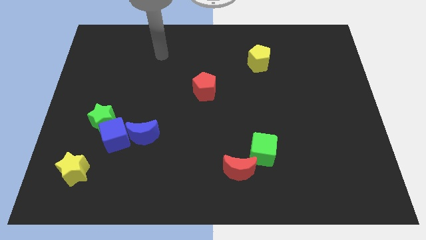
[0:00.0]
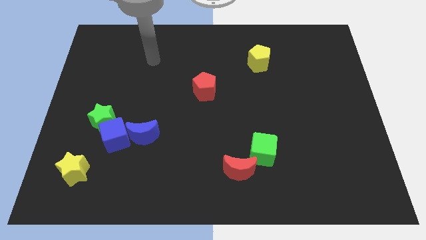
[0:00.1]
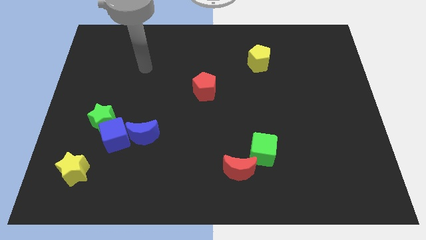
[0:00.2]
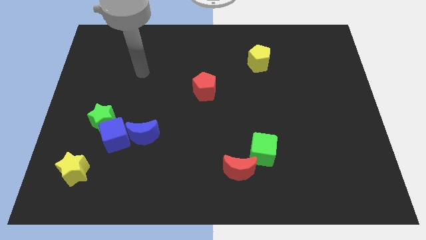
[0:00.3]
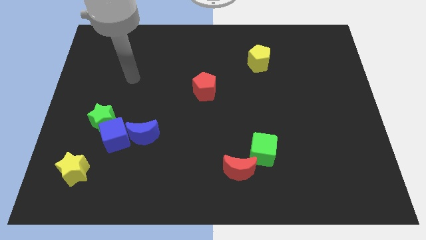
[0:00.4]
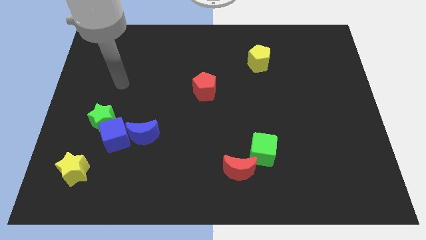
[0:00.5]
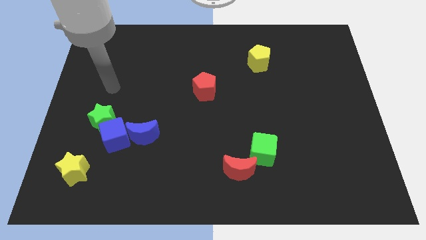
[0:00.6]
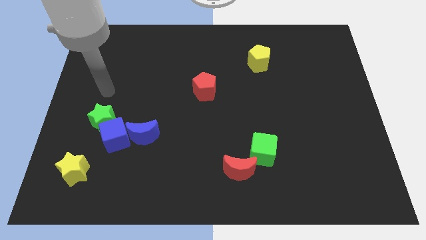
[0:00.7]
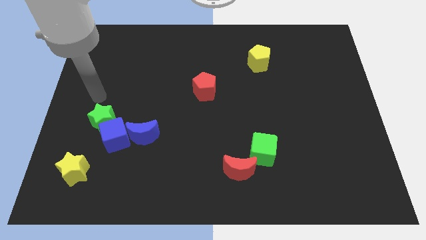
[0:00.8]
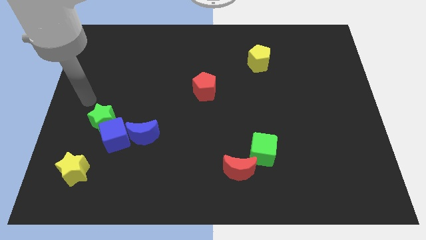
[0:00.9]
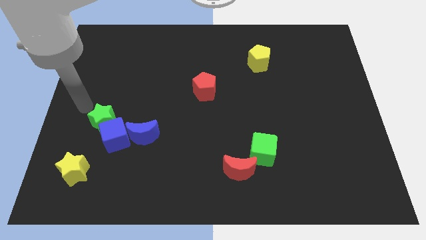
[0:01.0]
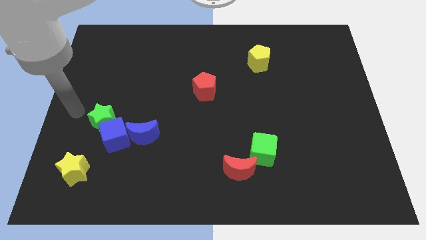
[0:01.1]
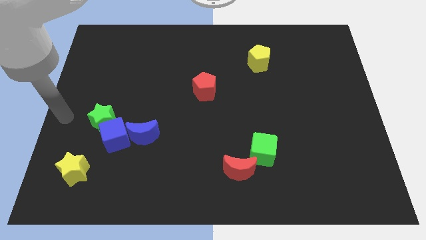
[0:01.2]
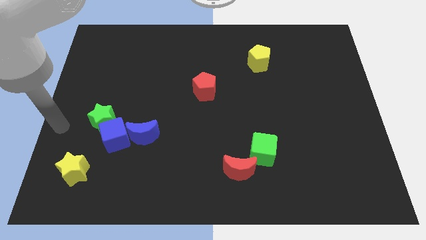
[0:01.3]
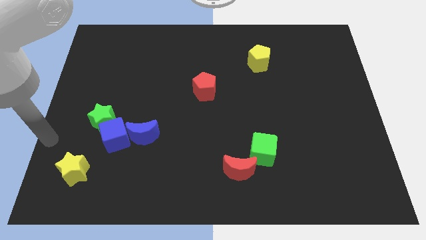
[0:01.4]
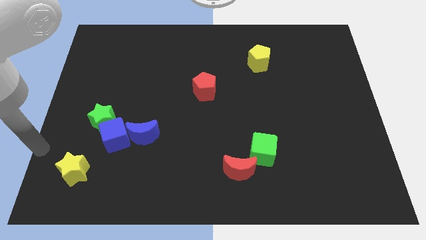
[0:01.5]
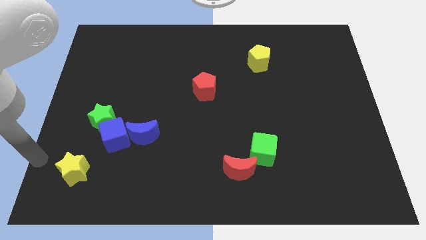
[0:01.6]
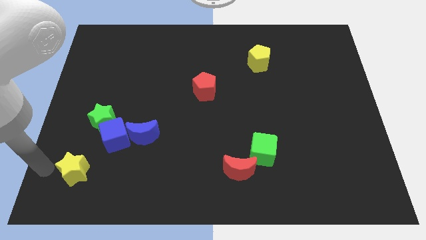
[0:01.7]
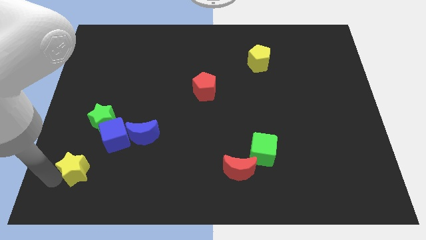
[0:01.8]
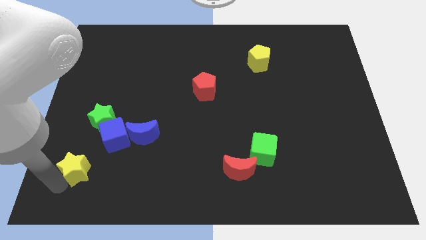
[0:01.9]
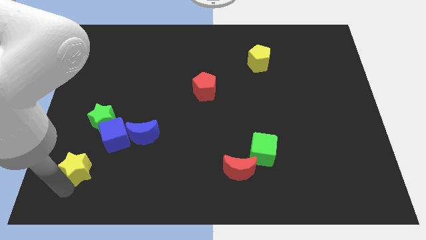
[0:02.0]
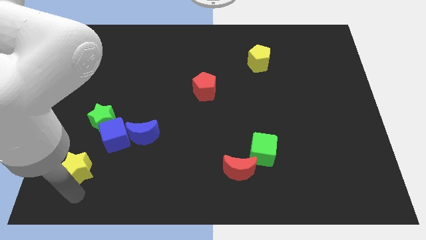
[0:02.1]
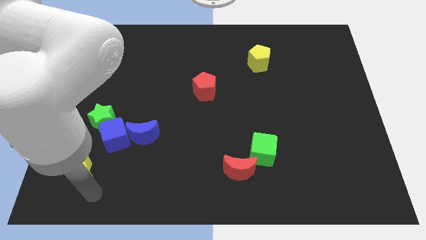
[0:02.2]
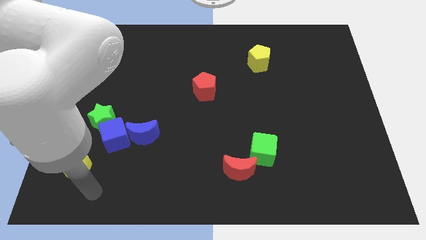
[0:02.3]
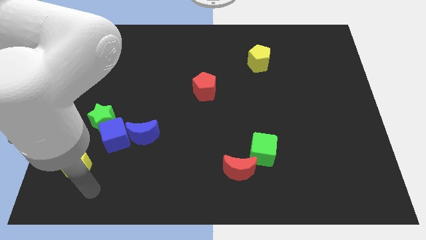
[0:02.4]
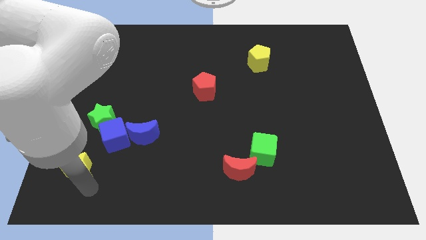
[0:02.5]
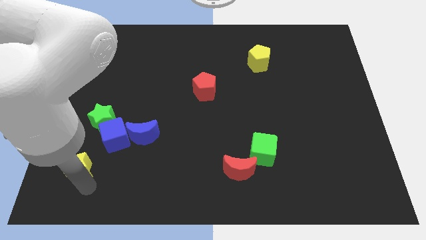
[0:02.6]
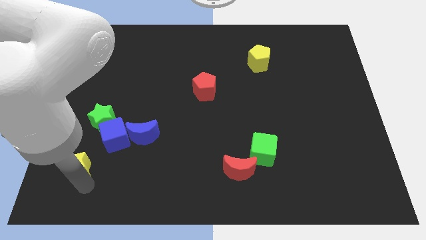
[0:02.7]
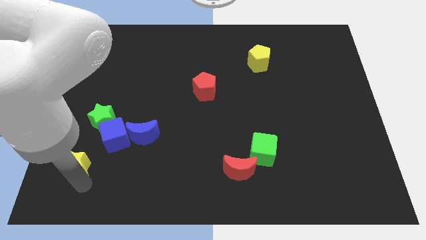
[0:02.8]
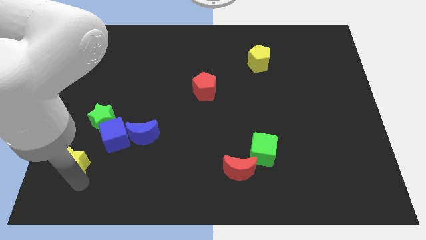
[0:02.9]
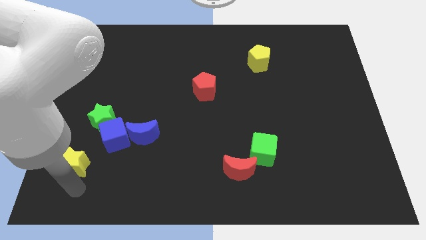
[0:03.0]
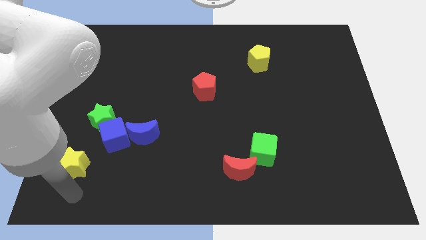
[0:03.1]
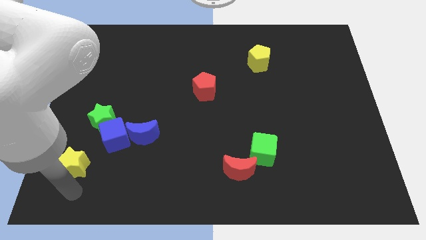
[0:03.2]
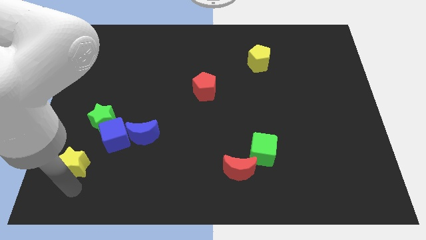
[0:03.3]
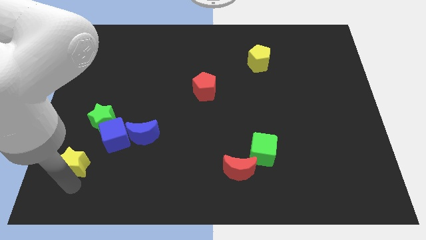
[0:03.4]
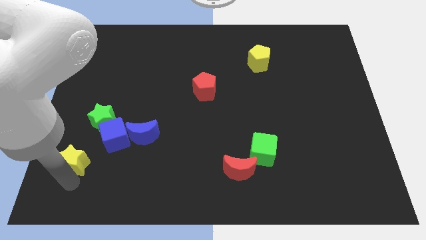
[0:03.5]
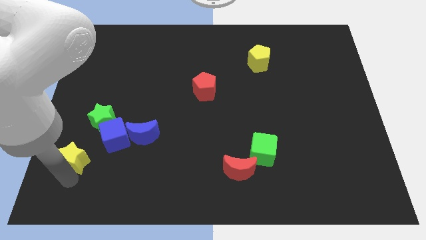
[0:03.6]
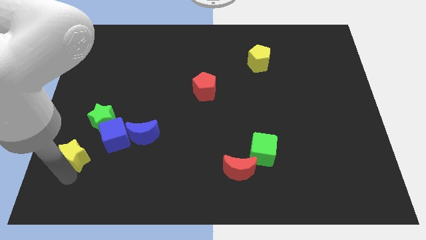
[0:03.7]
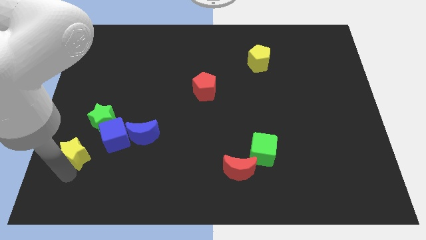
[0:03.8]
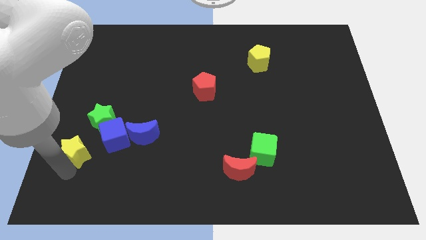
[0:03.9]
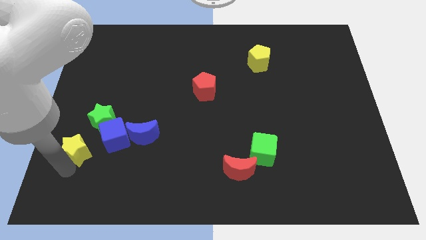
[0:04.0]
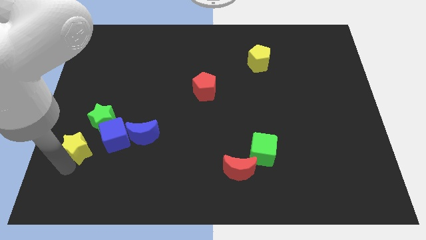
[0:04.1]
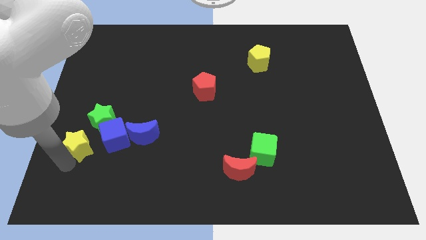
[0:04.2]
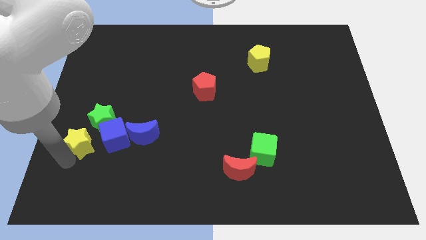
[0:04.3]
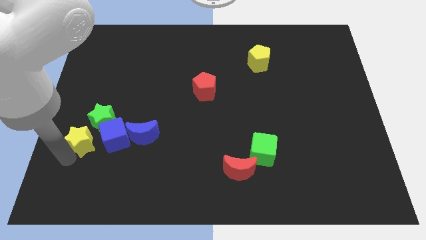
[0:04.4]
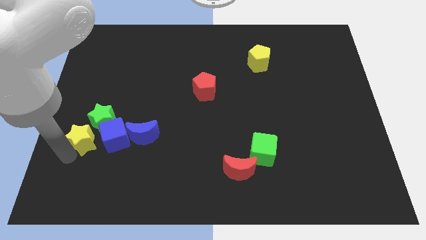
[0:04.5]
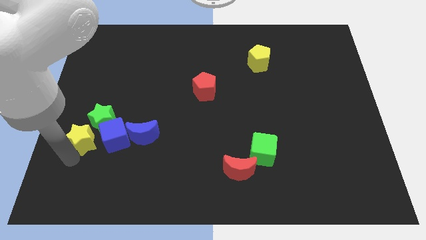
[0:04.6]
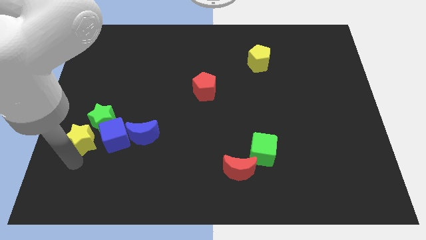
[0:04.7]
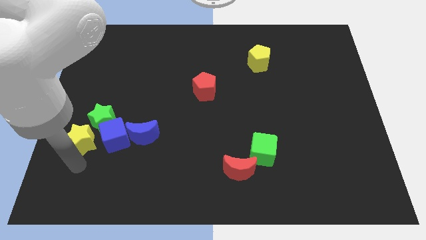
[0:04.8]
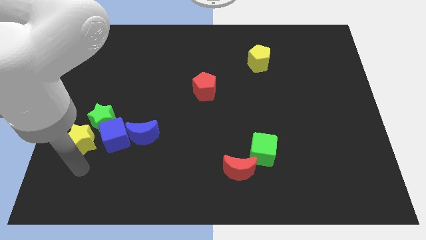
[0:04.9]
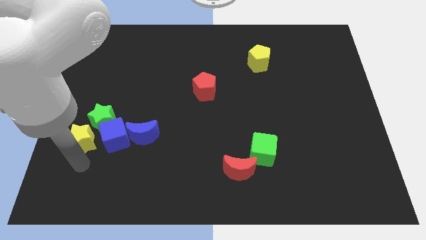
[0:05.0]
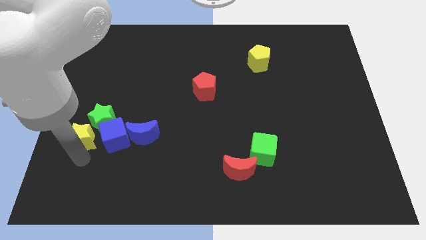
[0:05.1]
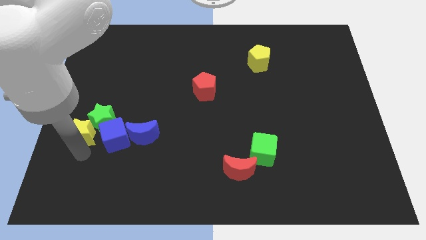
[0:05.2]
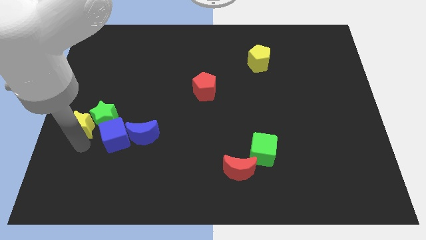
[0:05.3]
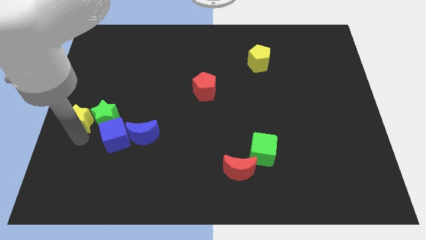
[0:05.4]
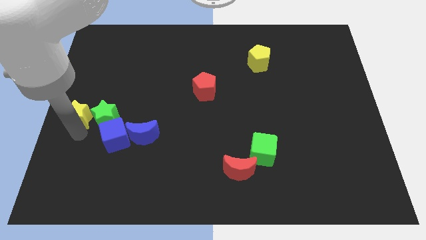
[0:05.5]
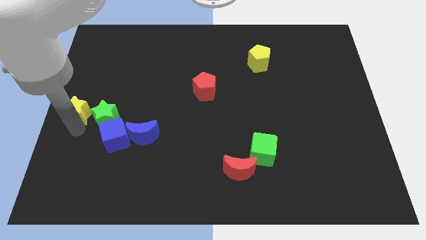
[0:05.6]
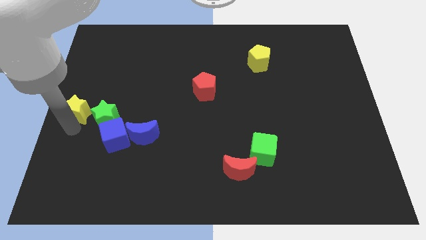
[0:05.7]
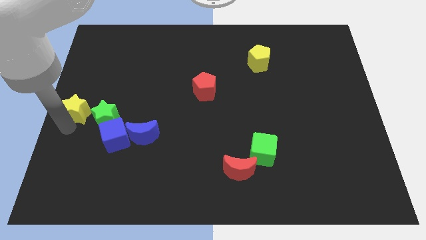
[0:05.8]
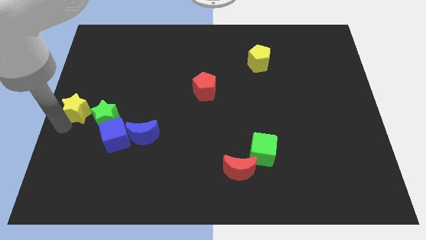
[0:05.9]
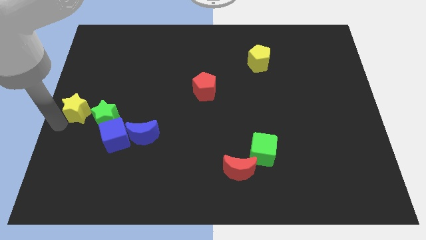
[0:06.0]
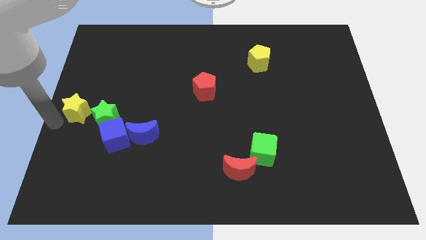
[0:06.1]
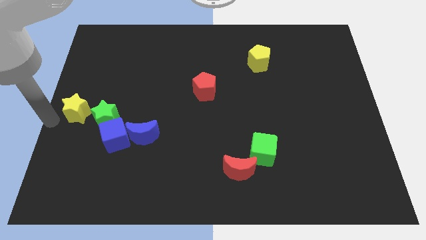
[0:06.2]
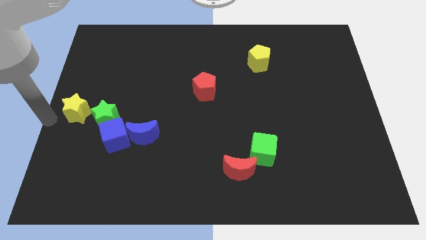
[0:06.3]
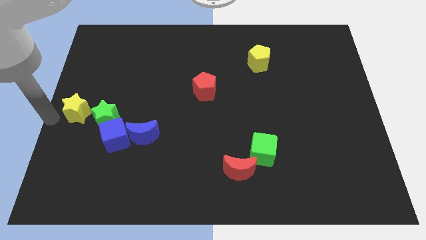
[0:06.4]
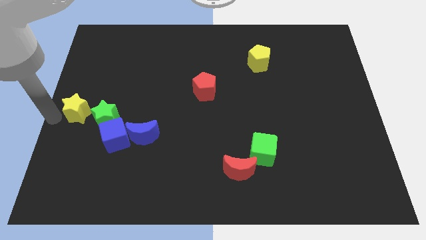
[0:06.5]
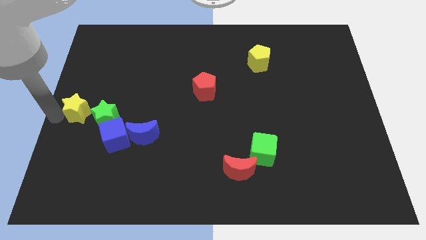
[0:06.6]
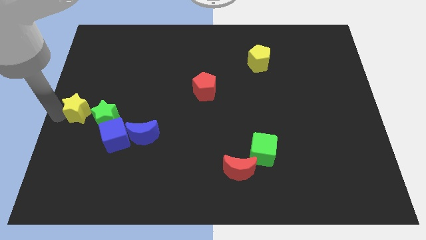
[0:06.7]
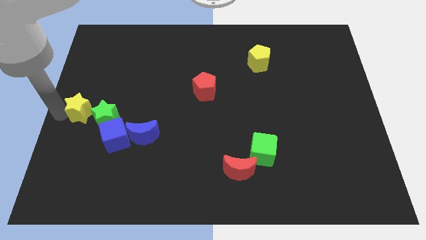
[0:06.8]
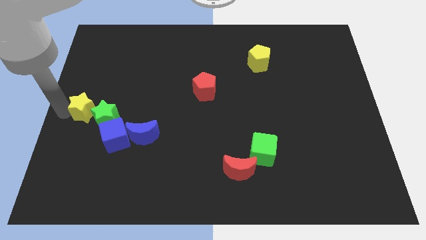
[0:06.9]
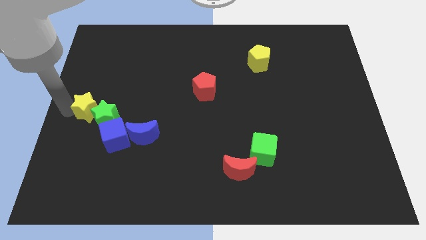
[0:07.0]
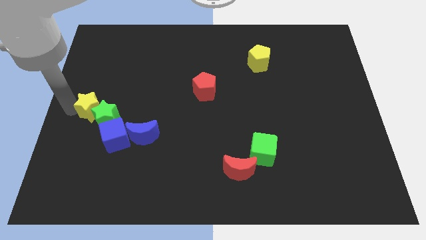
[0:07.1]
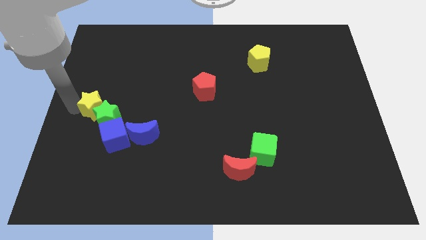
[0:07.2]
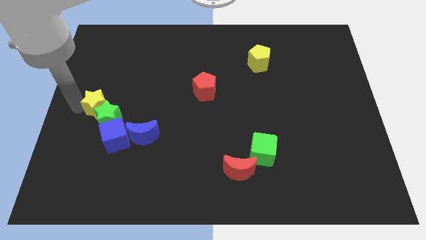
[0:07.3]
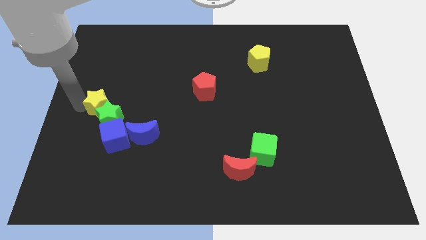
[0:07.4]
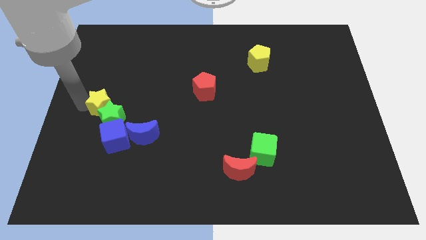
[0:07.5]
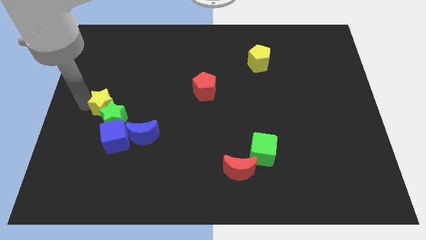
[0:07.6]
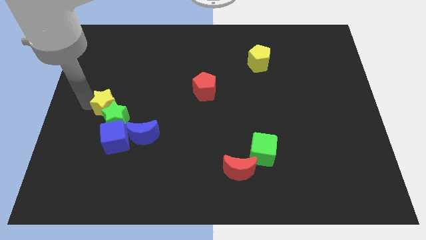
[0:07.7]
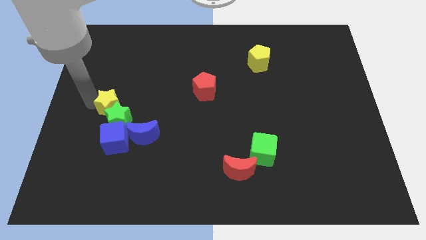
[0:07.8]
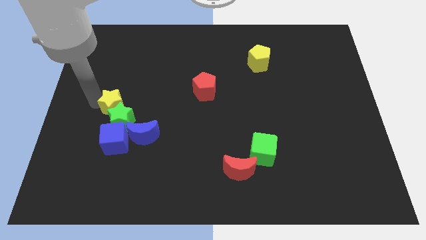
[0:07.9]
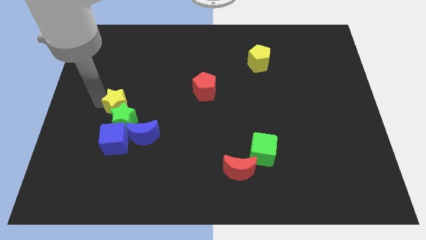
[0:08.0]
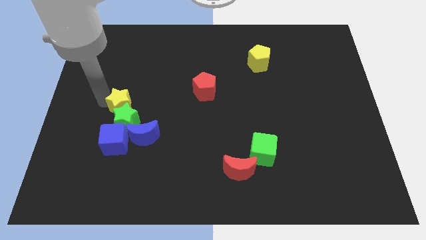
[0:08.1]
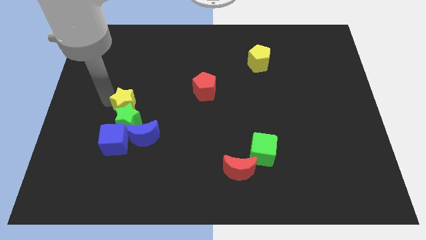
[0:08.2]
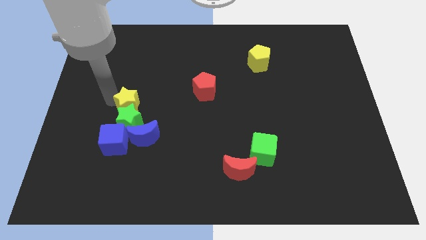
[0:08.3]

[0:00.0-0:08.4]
push the yellow star to the top right of the green star
